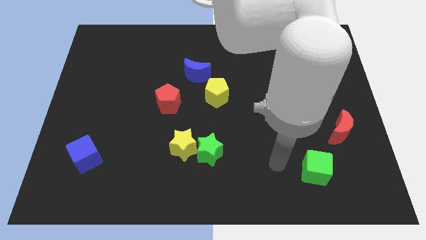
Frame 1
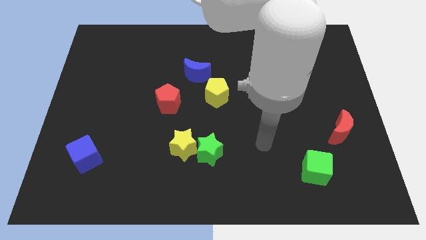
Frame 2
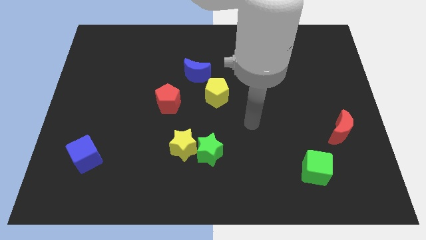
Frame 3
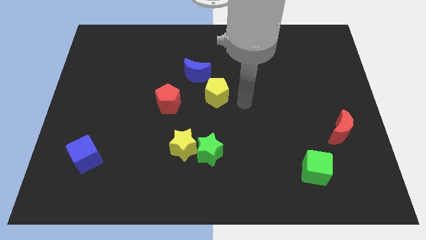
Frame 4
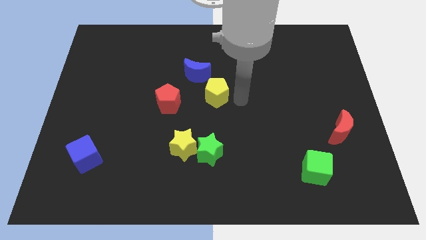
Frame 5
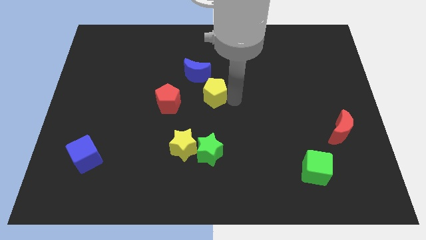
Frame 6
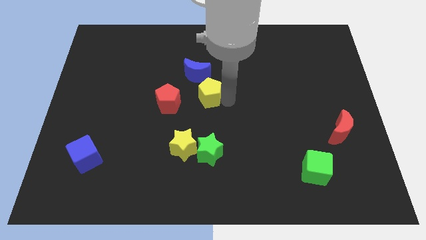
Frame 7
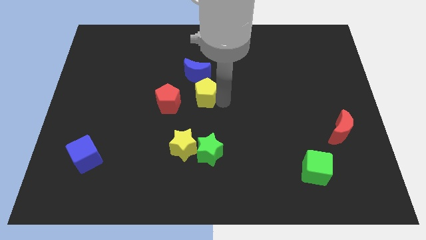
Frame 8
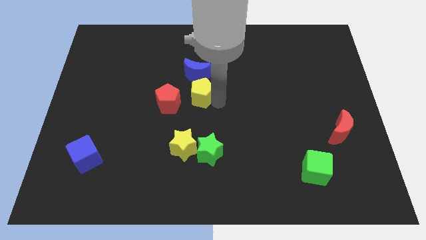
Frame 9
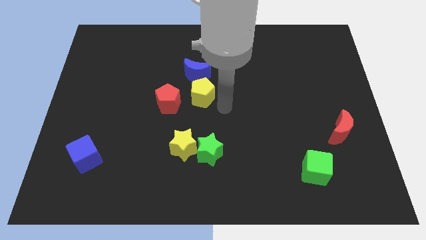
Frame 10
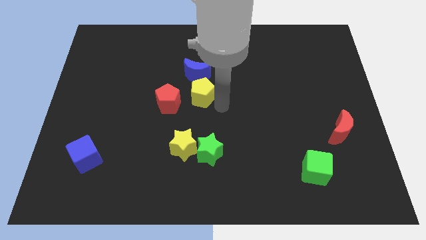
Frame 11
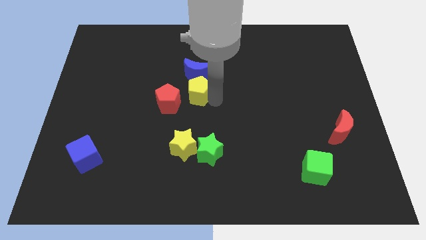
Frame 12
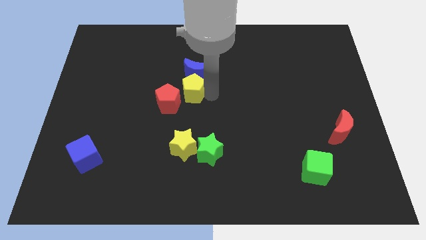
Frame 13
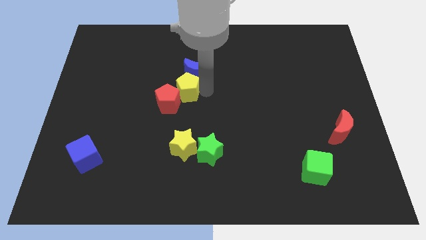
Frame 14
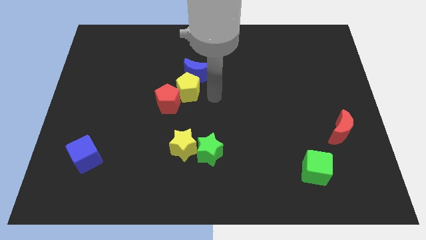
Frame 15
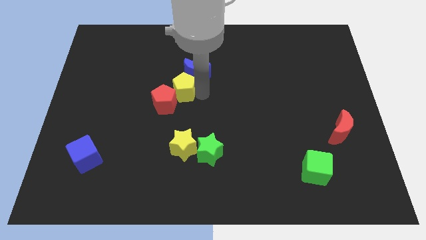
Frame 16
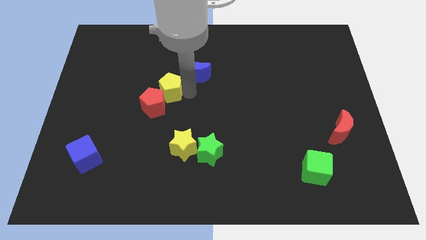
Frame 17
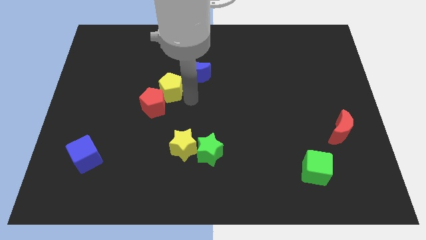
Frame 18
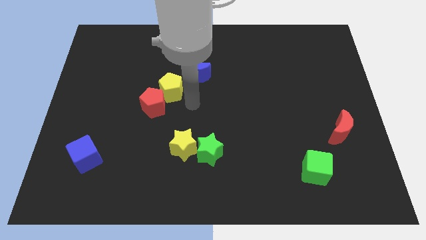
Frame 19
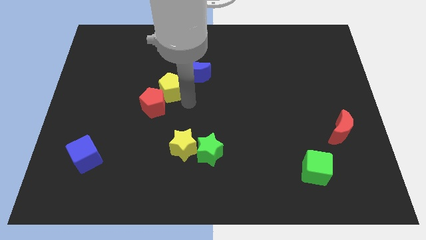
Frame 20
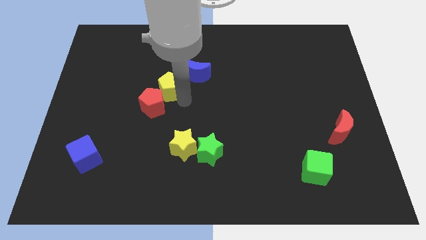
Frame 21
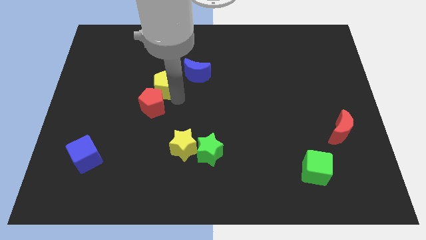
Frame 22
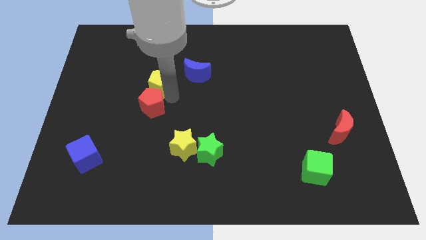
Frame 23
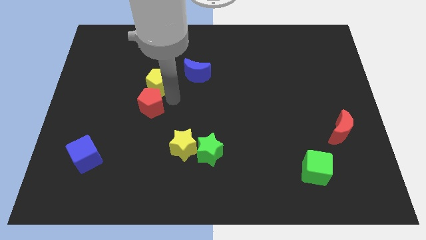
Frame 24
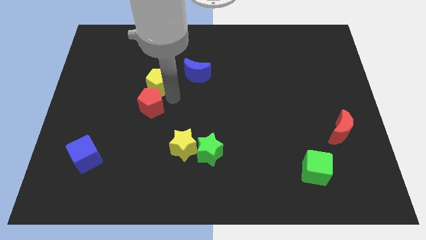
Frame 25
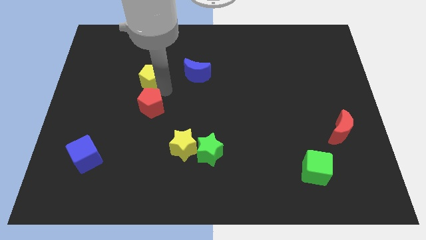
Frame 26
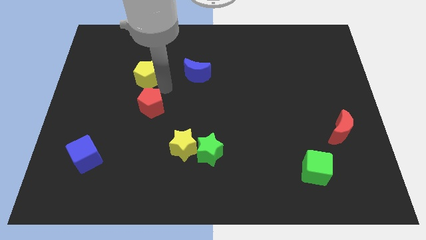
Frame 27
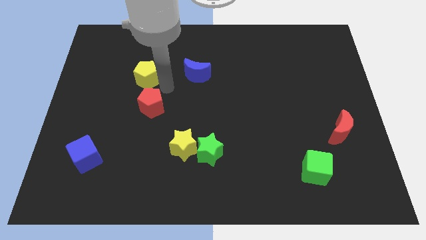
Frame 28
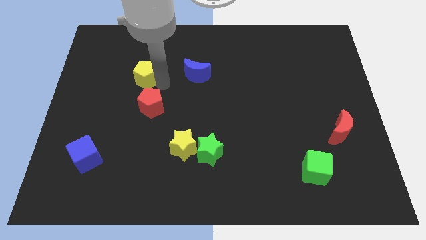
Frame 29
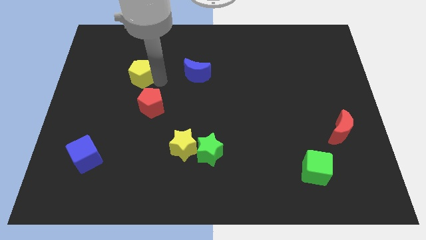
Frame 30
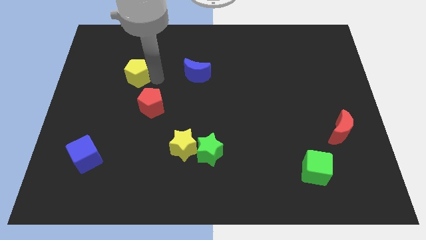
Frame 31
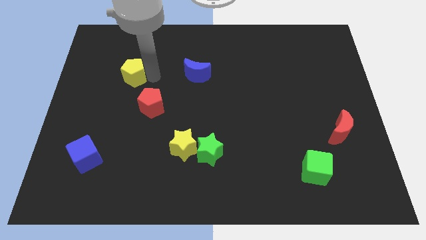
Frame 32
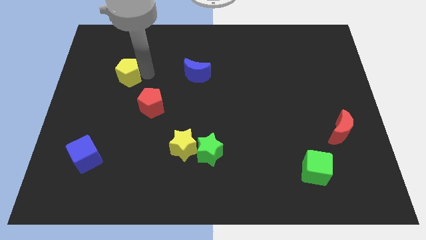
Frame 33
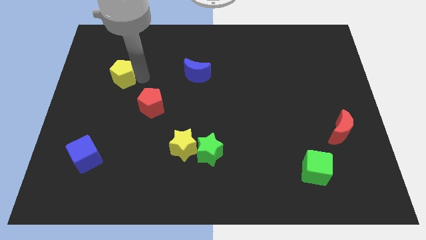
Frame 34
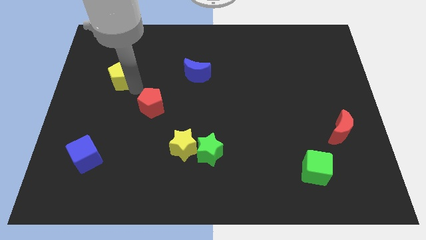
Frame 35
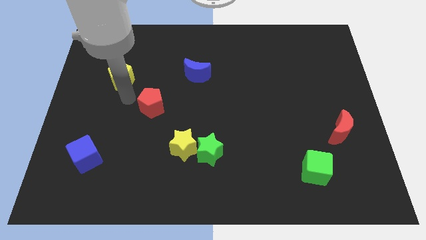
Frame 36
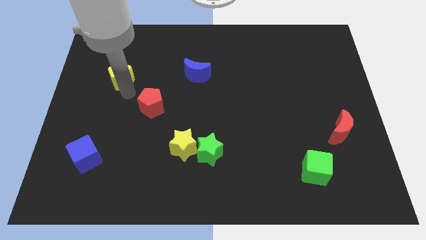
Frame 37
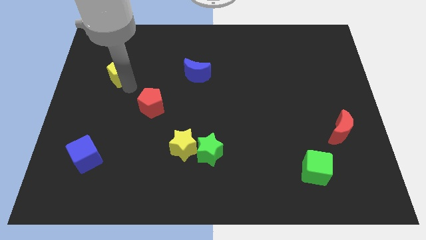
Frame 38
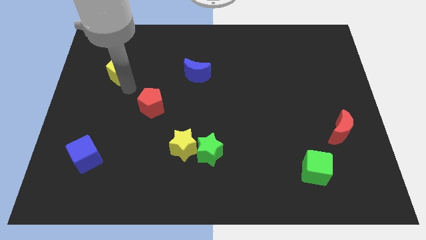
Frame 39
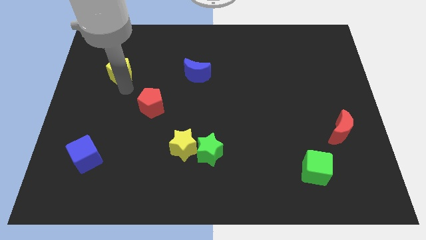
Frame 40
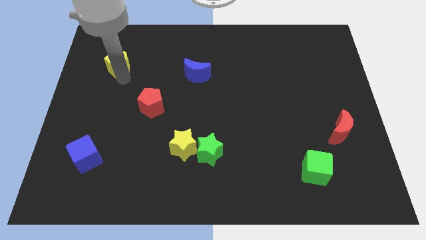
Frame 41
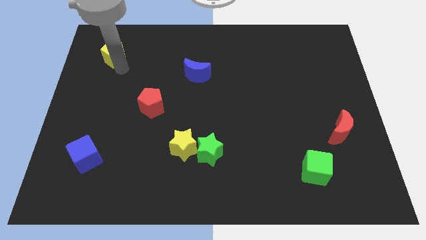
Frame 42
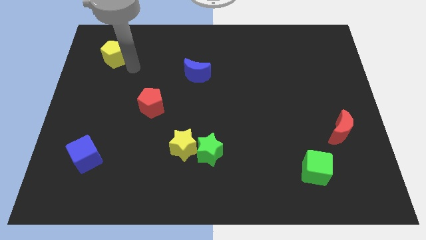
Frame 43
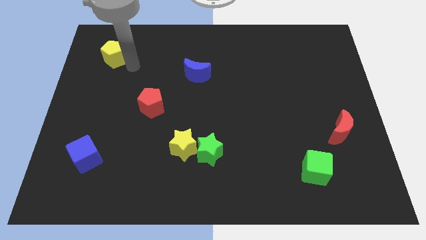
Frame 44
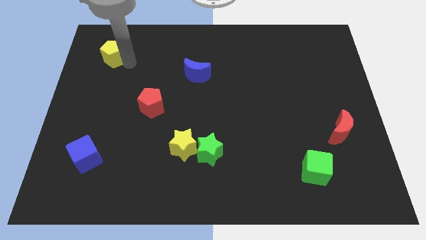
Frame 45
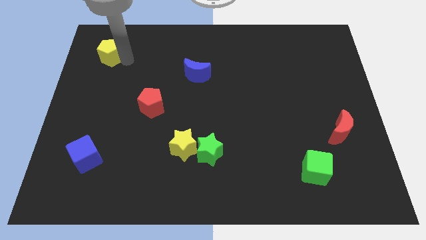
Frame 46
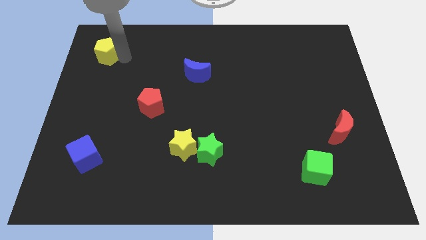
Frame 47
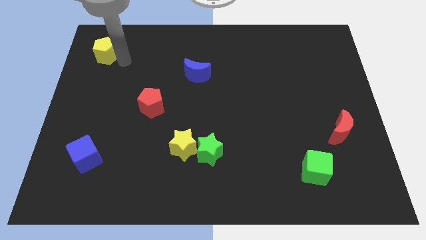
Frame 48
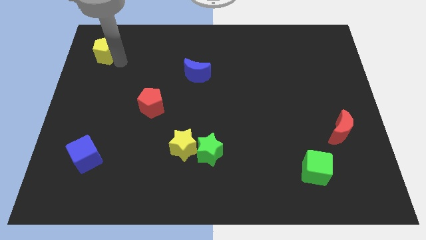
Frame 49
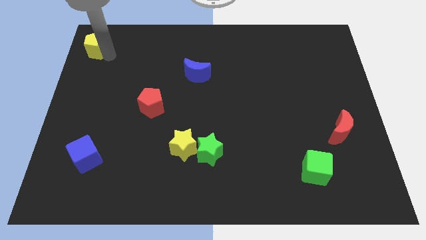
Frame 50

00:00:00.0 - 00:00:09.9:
put the yellow pentagon to the upper left corner

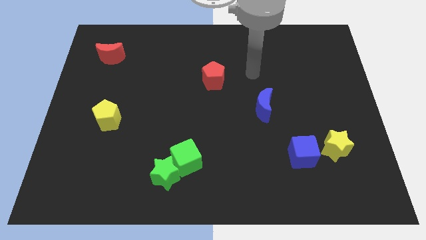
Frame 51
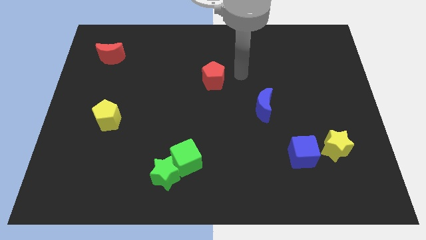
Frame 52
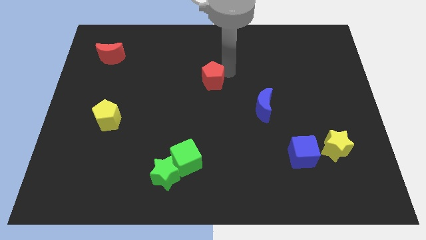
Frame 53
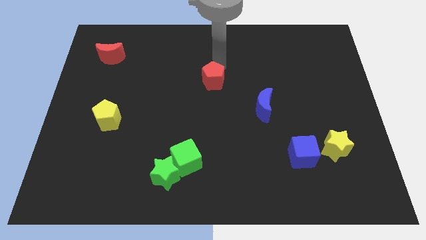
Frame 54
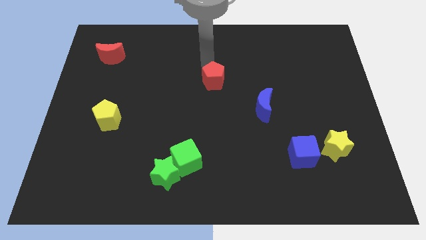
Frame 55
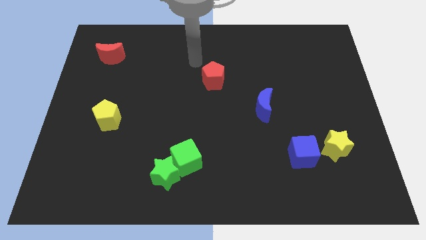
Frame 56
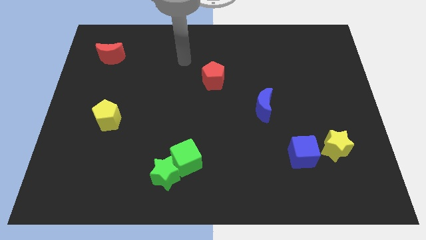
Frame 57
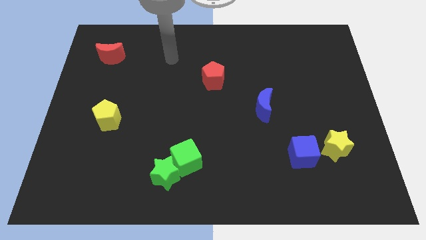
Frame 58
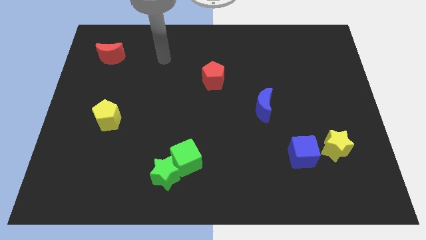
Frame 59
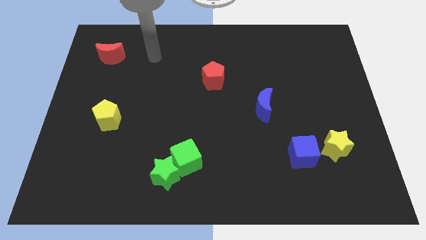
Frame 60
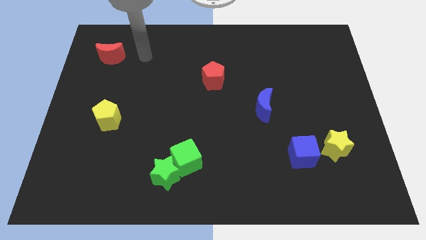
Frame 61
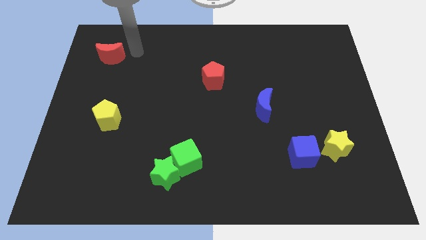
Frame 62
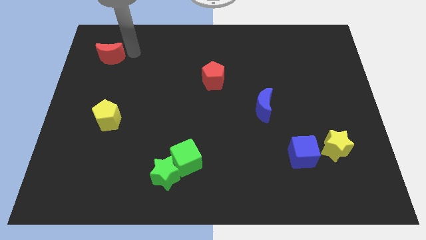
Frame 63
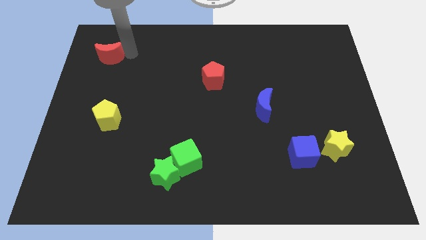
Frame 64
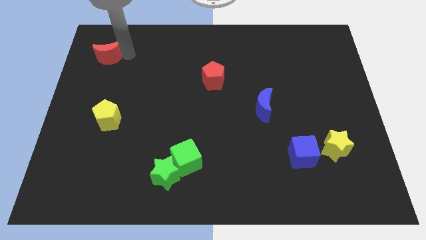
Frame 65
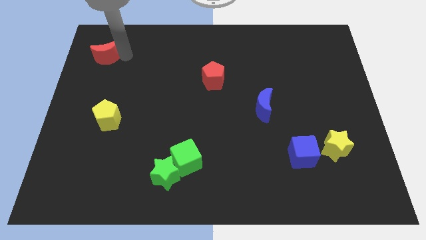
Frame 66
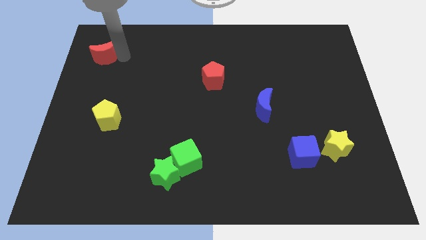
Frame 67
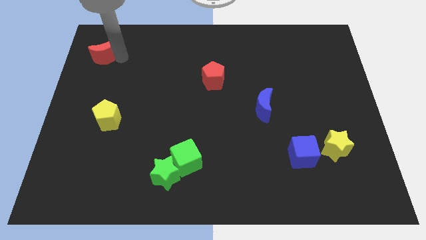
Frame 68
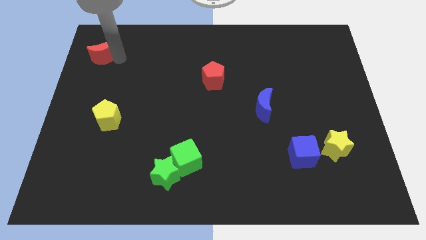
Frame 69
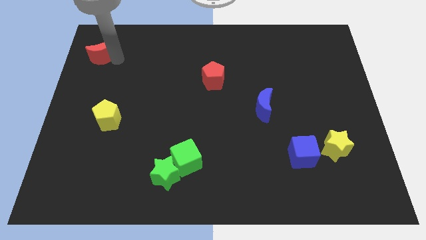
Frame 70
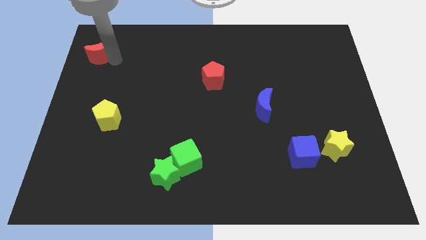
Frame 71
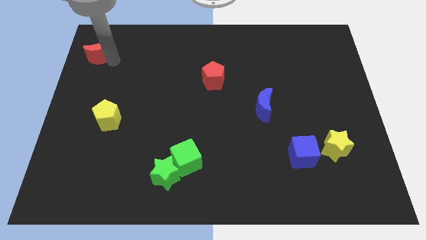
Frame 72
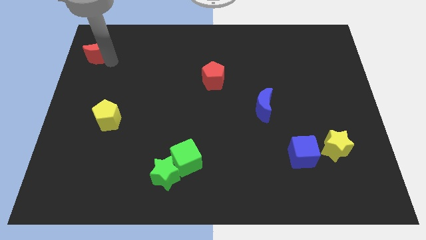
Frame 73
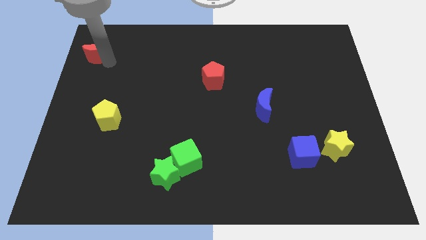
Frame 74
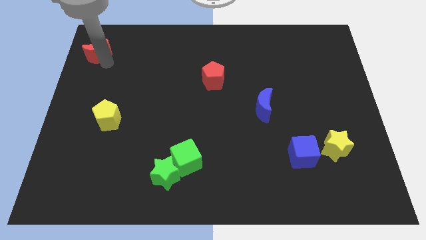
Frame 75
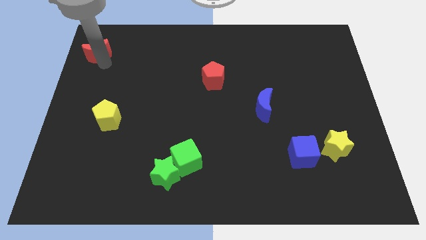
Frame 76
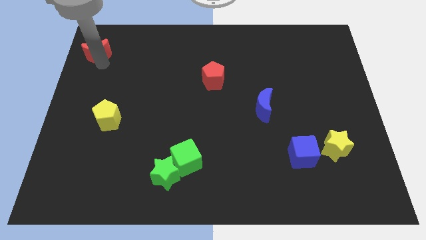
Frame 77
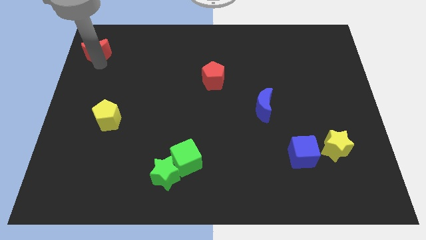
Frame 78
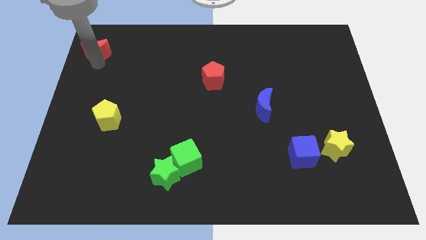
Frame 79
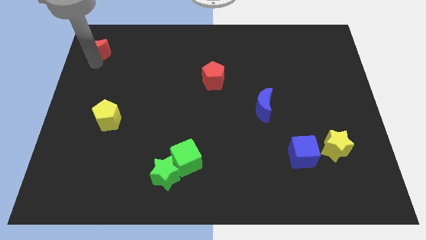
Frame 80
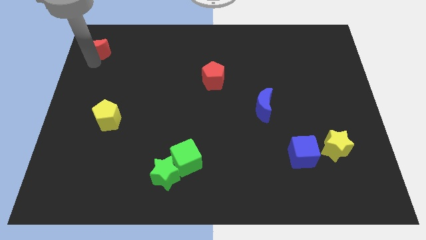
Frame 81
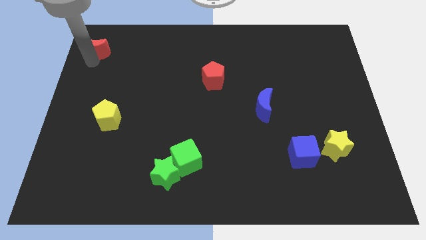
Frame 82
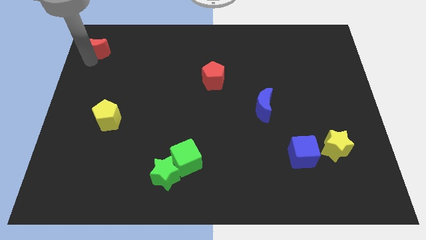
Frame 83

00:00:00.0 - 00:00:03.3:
slide the red moon to the upper left corner
